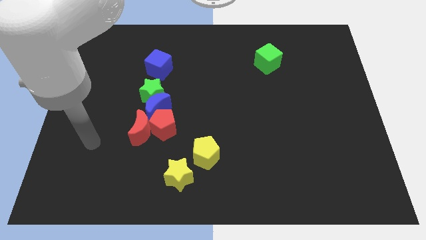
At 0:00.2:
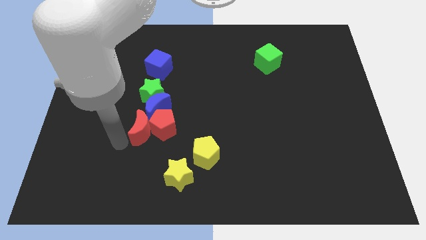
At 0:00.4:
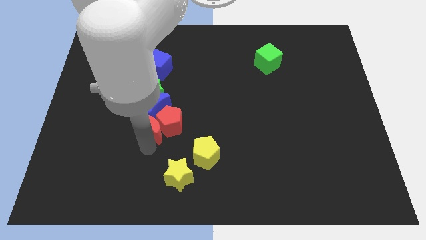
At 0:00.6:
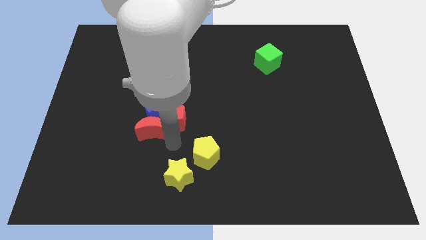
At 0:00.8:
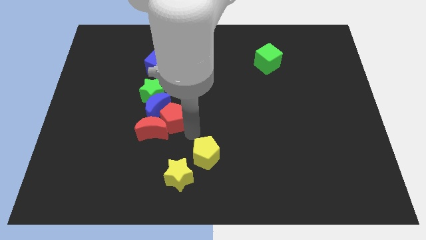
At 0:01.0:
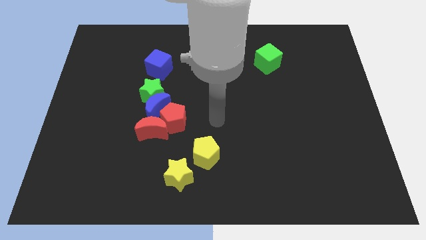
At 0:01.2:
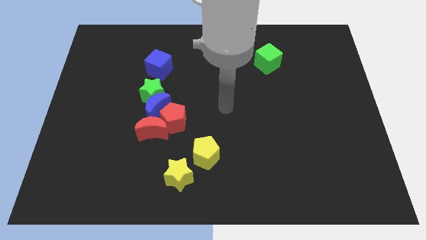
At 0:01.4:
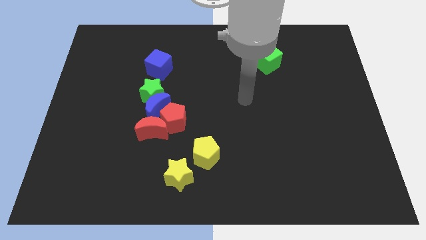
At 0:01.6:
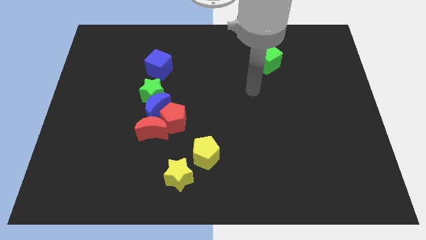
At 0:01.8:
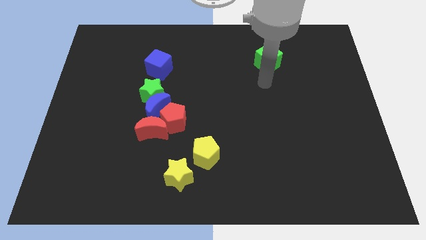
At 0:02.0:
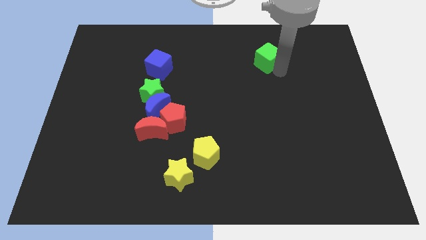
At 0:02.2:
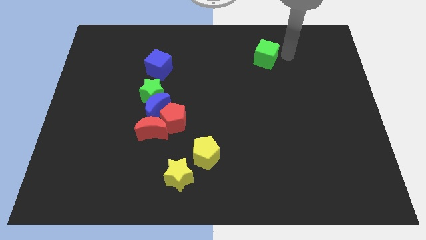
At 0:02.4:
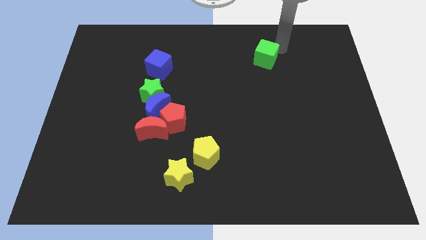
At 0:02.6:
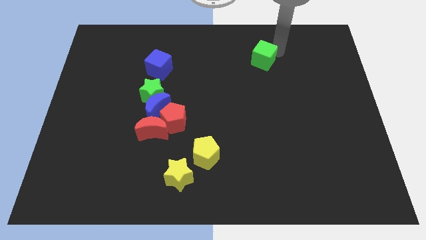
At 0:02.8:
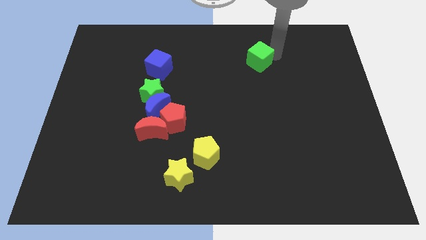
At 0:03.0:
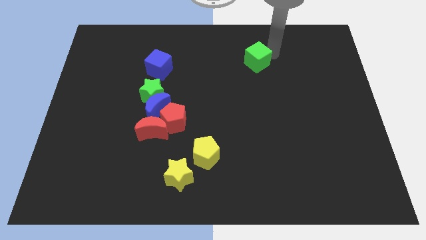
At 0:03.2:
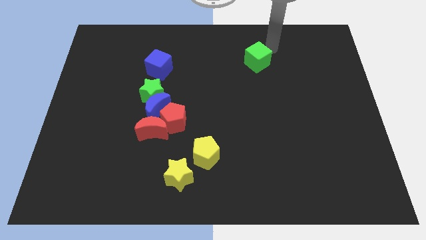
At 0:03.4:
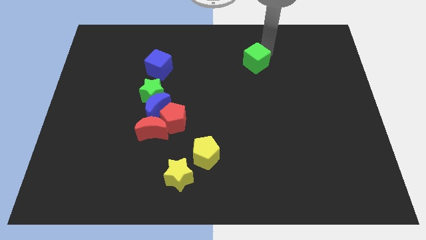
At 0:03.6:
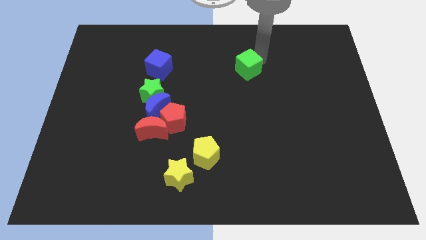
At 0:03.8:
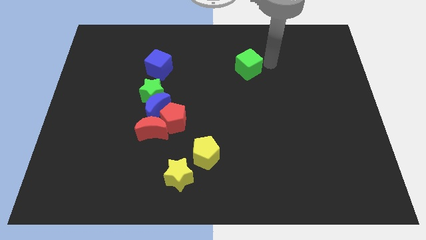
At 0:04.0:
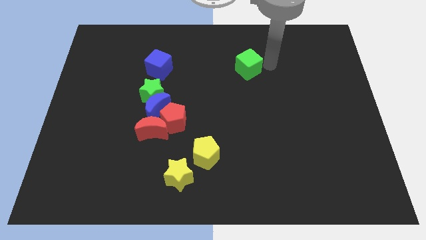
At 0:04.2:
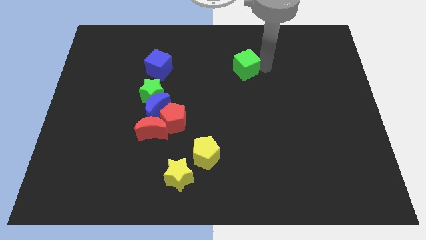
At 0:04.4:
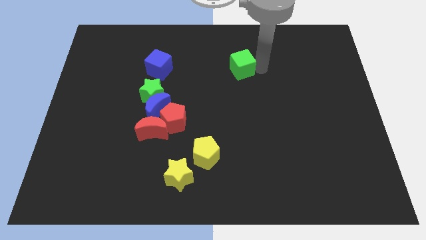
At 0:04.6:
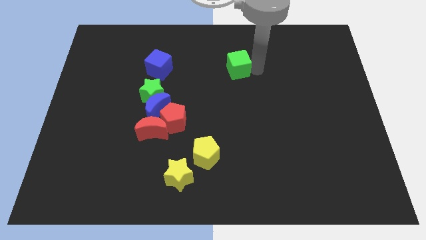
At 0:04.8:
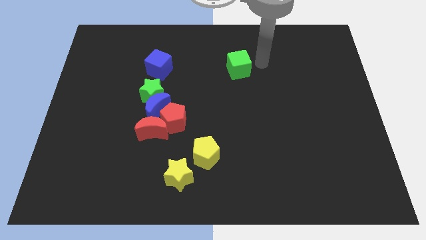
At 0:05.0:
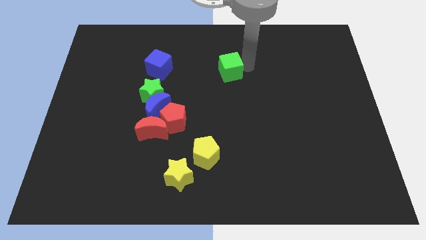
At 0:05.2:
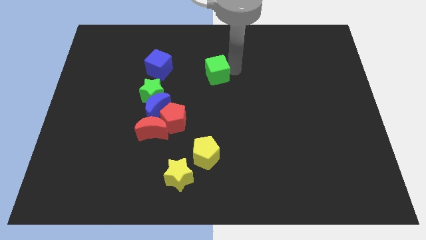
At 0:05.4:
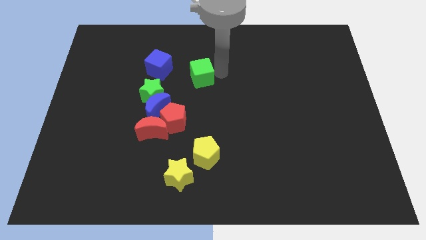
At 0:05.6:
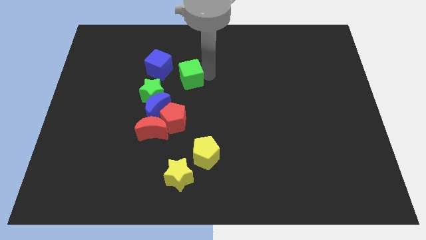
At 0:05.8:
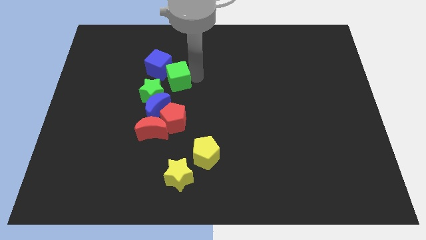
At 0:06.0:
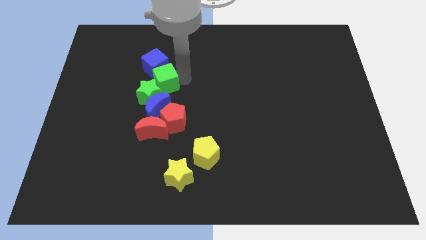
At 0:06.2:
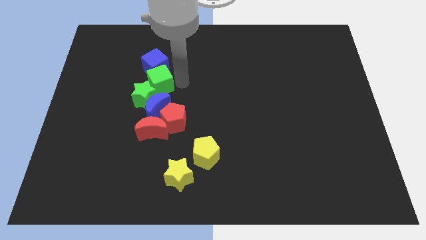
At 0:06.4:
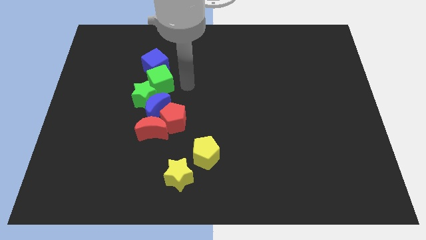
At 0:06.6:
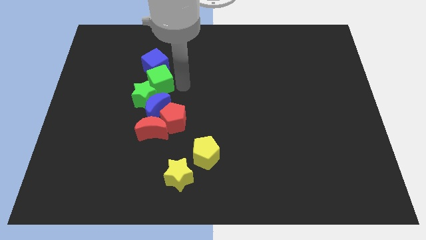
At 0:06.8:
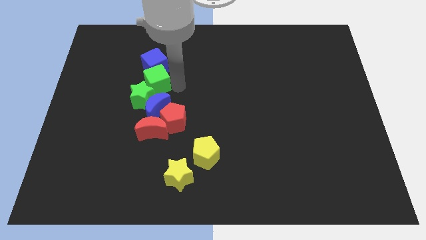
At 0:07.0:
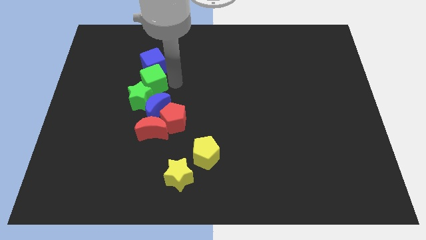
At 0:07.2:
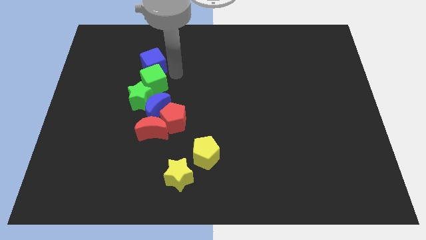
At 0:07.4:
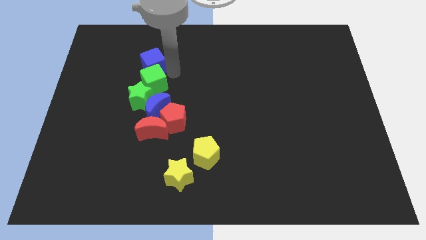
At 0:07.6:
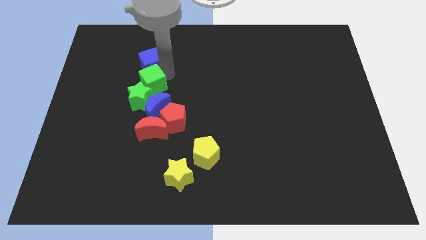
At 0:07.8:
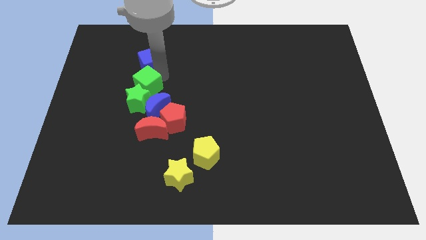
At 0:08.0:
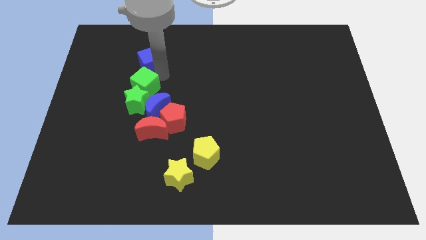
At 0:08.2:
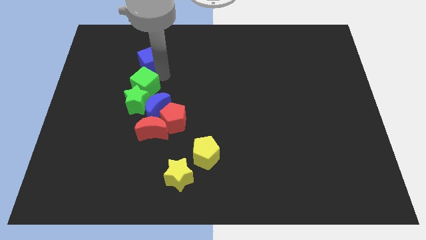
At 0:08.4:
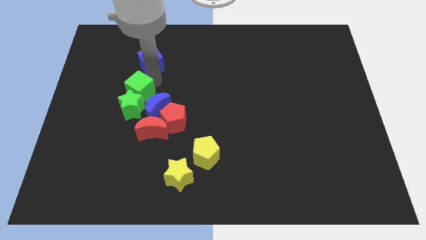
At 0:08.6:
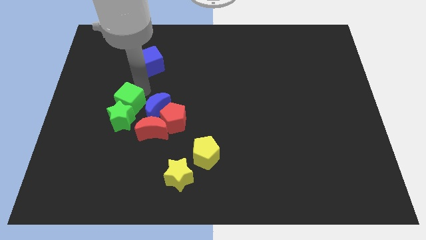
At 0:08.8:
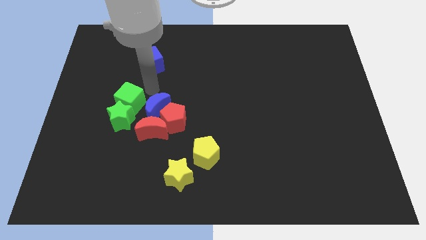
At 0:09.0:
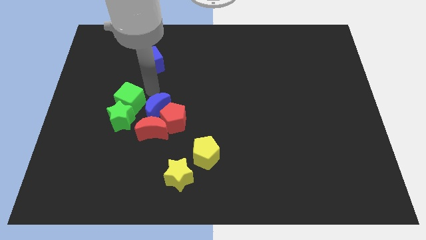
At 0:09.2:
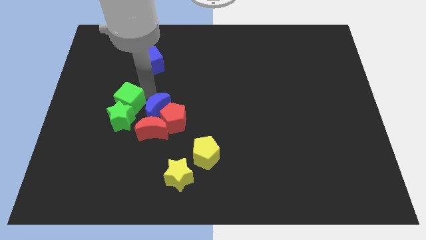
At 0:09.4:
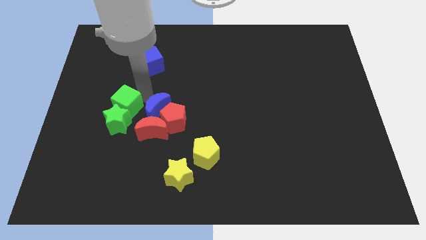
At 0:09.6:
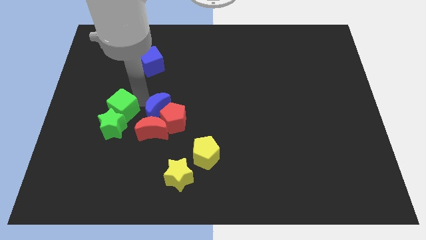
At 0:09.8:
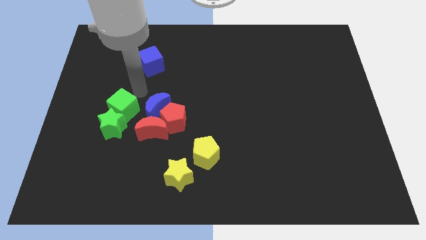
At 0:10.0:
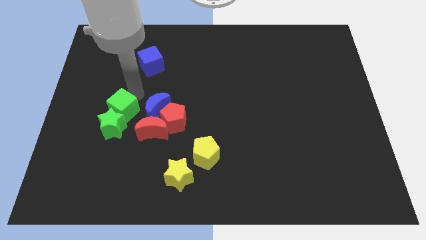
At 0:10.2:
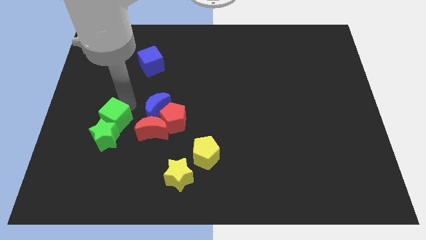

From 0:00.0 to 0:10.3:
push the green cube left of the red moon

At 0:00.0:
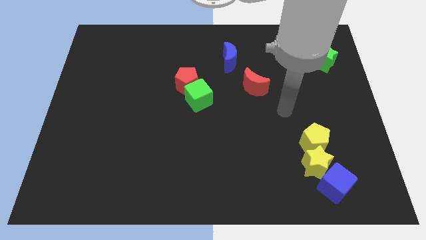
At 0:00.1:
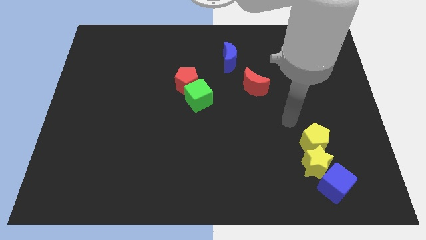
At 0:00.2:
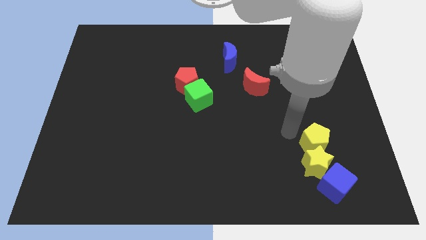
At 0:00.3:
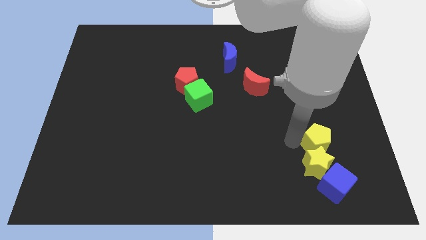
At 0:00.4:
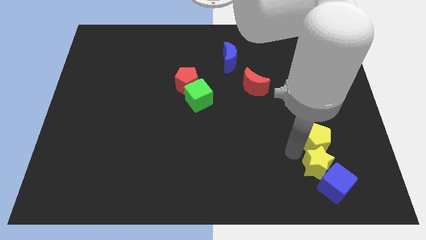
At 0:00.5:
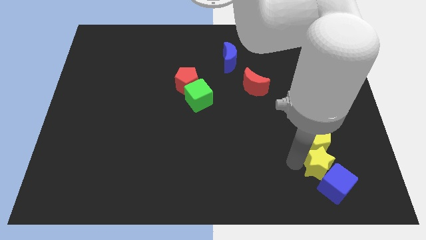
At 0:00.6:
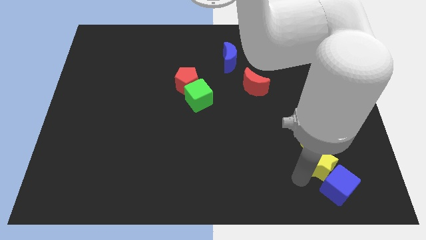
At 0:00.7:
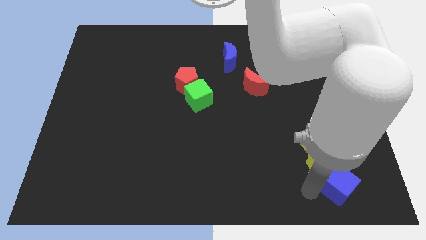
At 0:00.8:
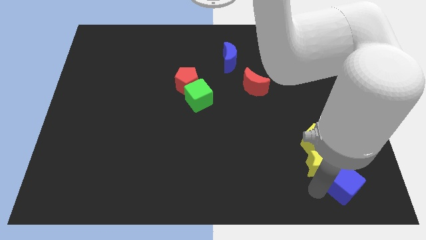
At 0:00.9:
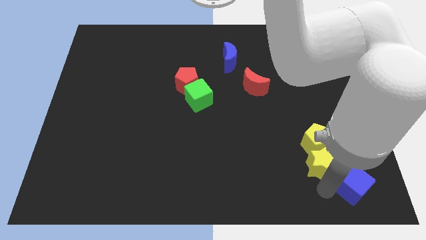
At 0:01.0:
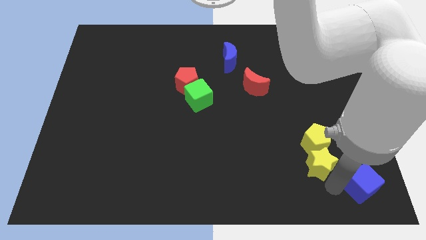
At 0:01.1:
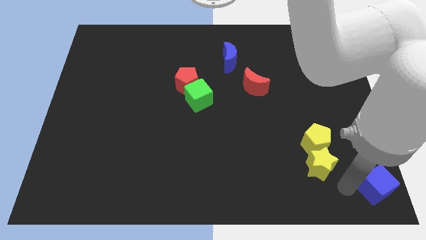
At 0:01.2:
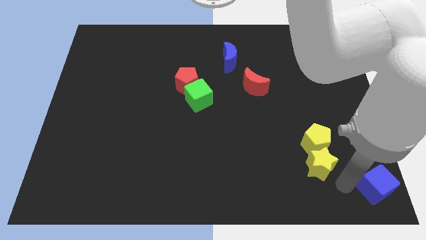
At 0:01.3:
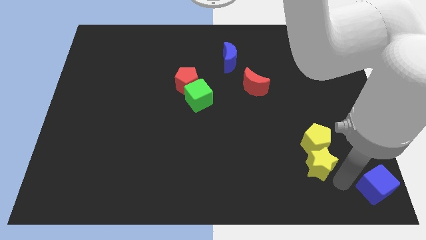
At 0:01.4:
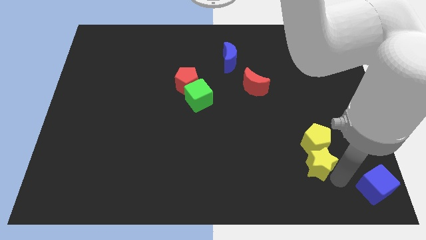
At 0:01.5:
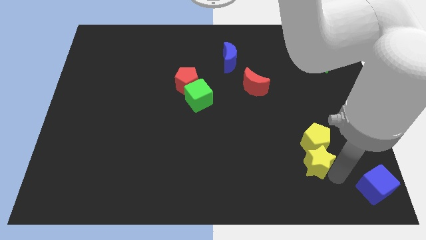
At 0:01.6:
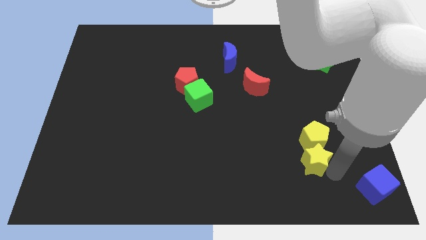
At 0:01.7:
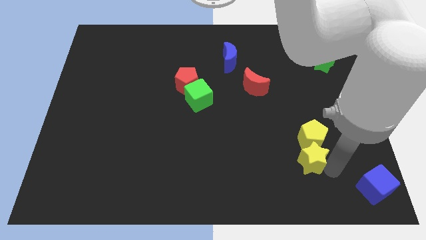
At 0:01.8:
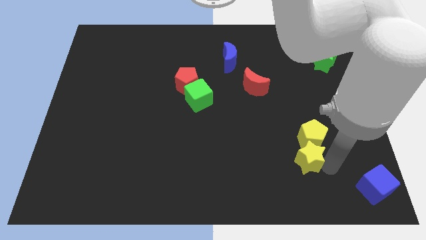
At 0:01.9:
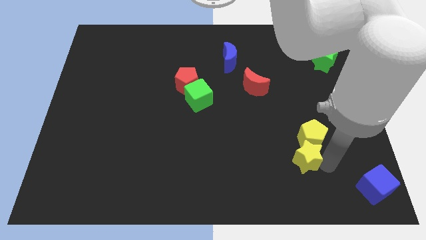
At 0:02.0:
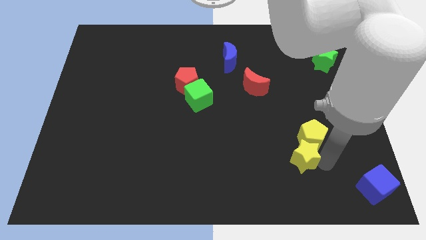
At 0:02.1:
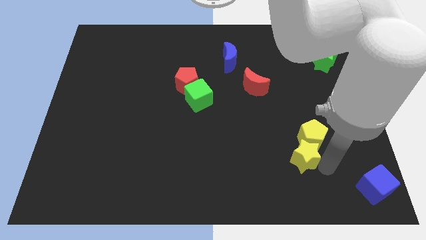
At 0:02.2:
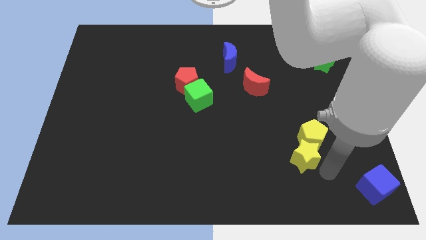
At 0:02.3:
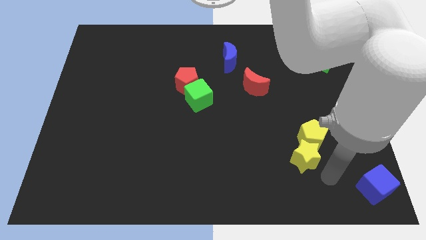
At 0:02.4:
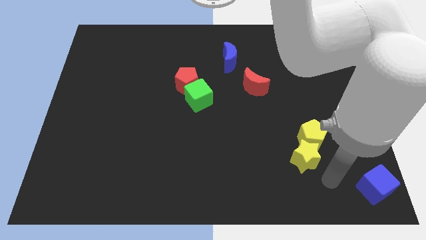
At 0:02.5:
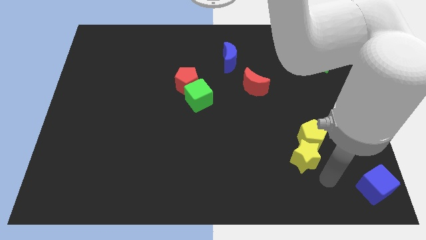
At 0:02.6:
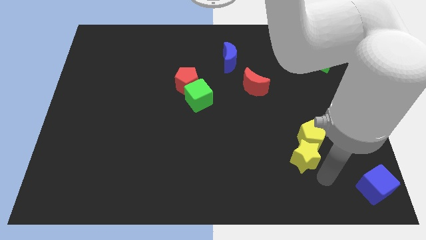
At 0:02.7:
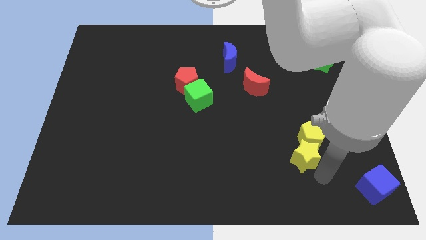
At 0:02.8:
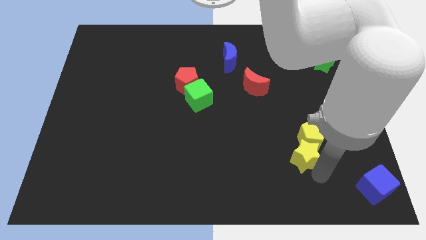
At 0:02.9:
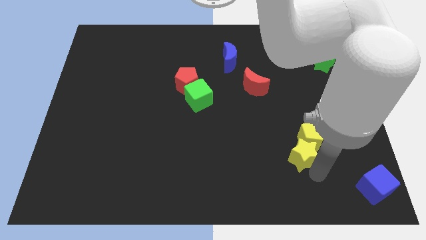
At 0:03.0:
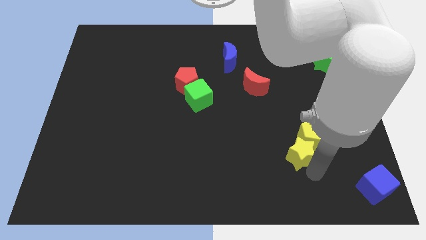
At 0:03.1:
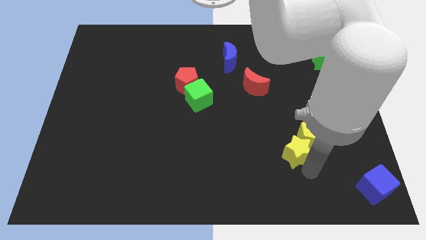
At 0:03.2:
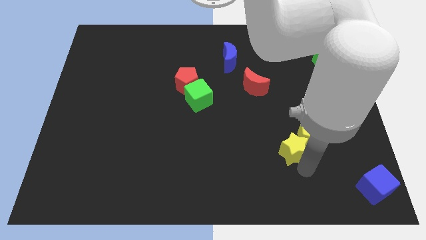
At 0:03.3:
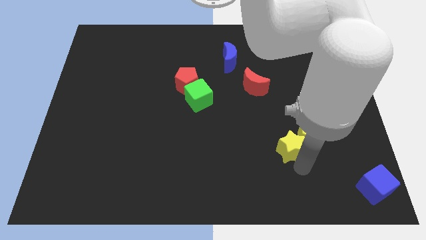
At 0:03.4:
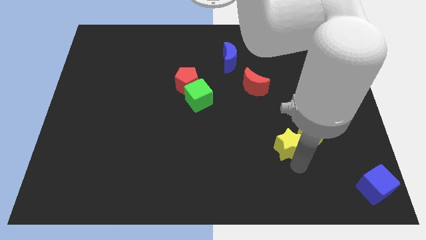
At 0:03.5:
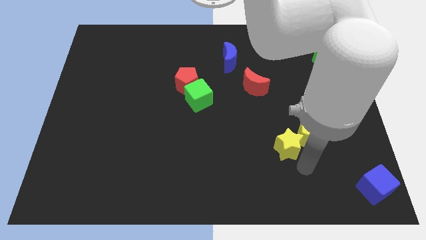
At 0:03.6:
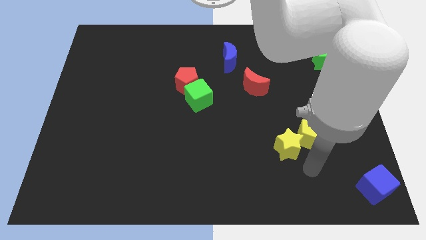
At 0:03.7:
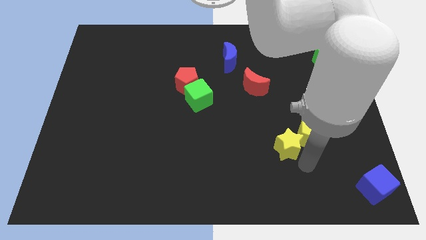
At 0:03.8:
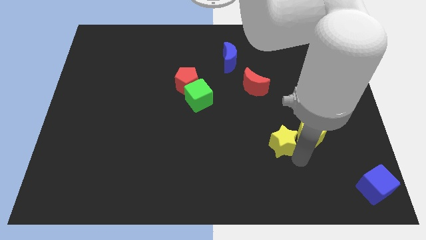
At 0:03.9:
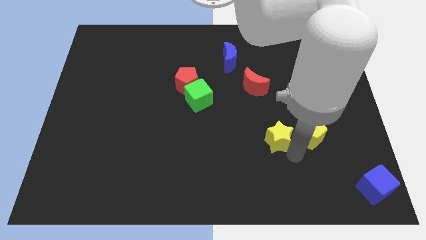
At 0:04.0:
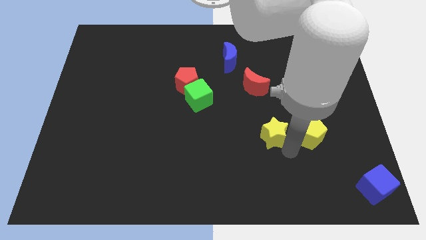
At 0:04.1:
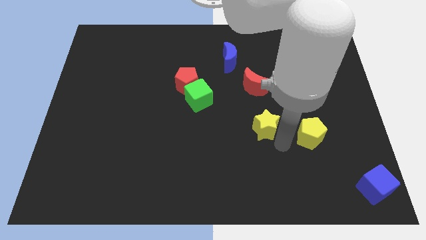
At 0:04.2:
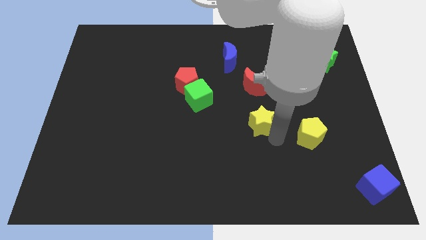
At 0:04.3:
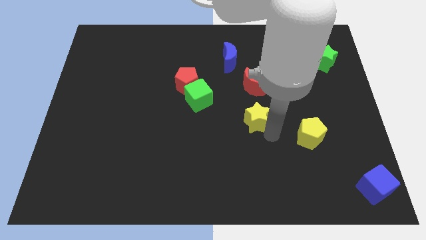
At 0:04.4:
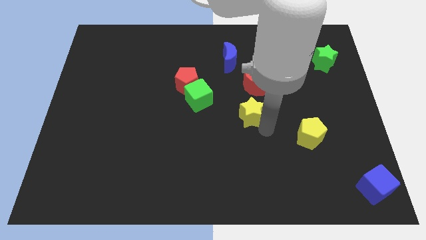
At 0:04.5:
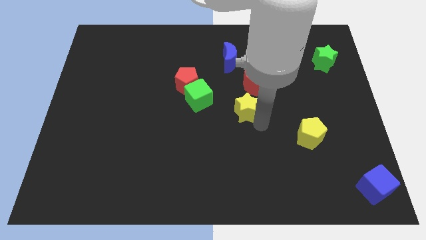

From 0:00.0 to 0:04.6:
put the yellow star diagonally down and to the left of the red moon
